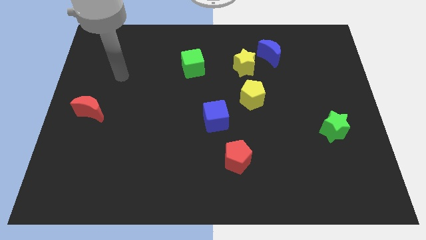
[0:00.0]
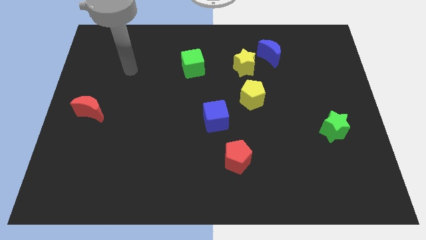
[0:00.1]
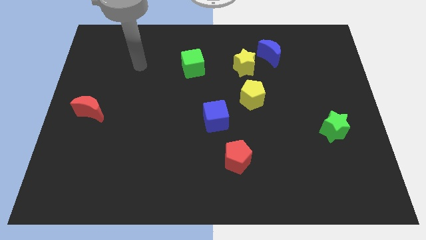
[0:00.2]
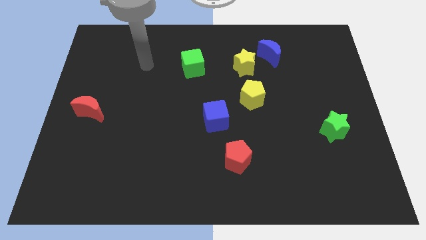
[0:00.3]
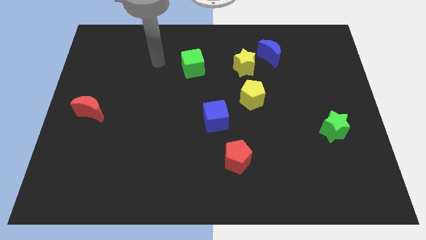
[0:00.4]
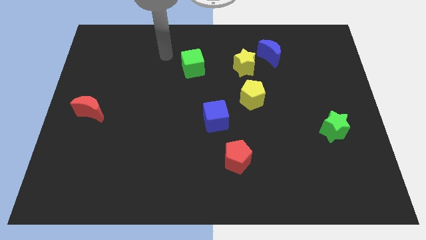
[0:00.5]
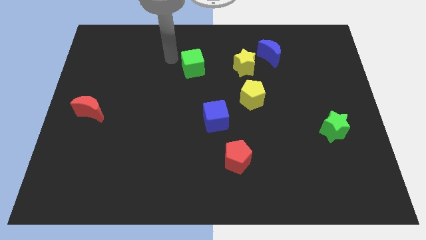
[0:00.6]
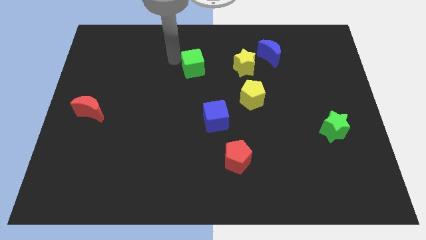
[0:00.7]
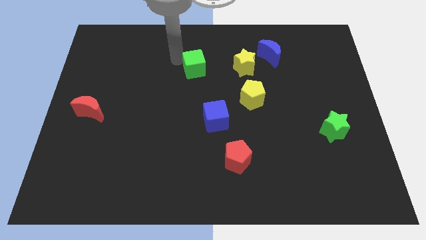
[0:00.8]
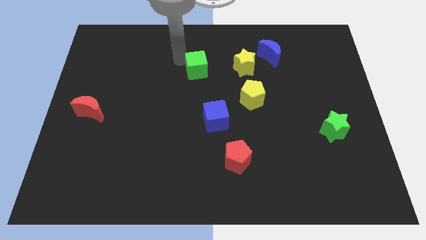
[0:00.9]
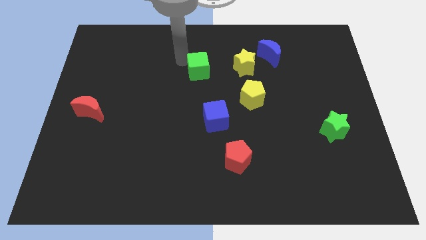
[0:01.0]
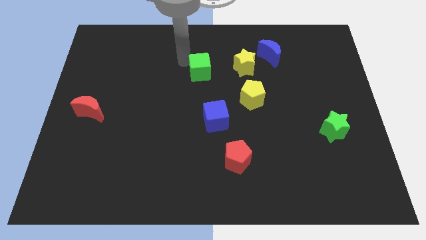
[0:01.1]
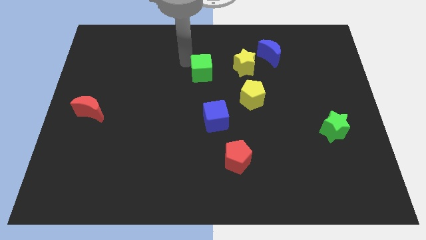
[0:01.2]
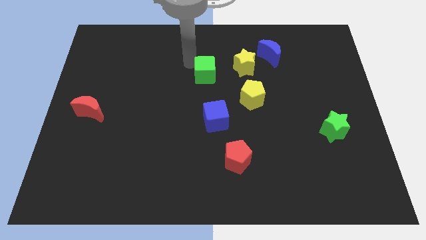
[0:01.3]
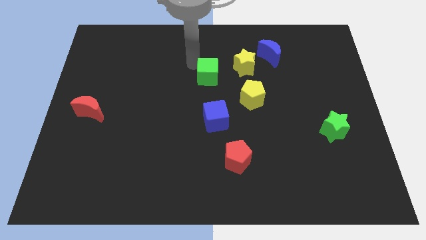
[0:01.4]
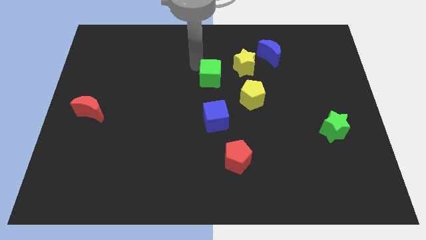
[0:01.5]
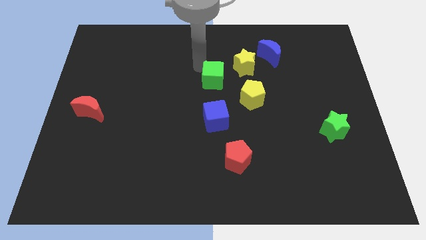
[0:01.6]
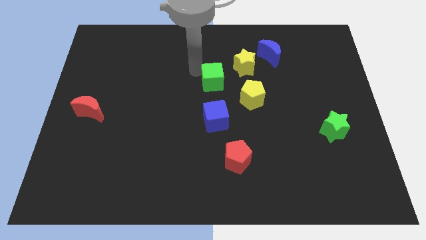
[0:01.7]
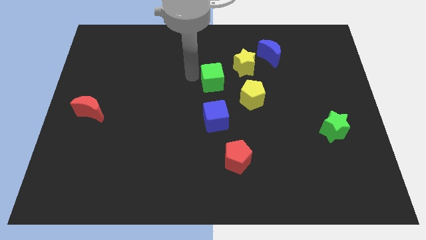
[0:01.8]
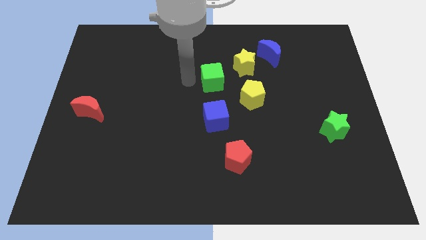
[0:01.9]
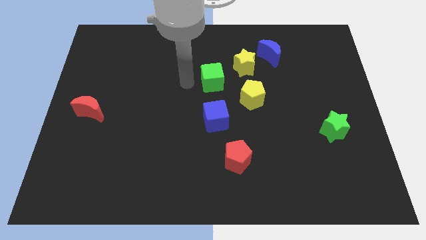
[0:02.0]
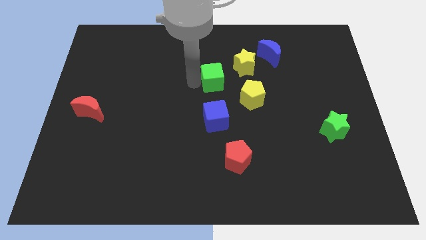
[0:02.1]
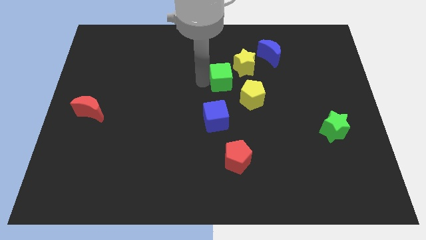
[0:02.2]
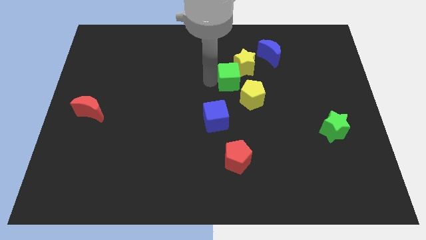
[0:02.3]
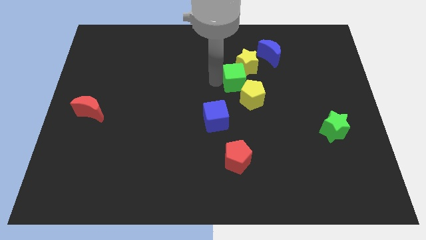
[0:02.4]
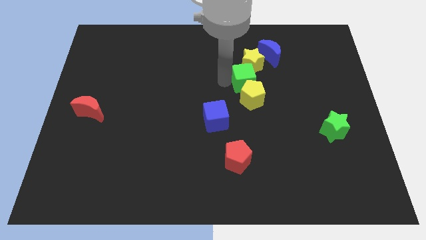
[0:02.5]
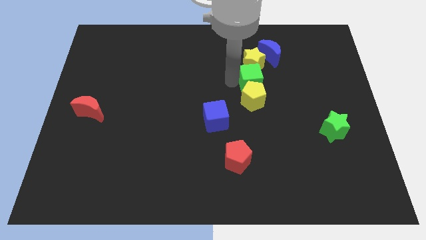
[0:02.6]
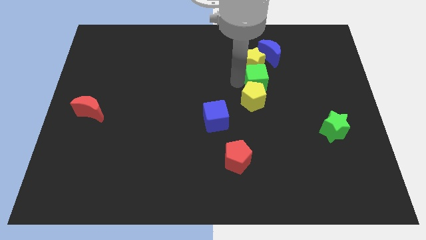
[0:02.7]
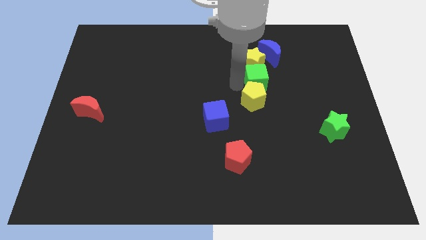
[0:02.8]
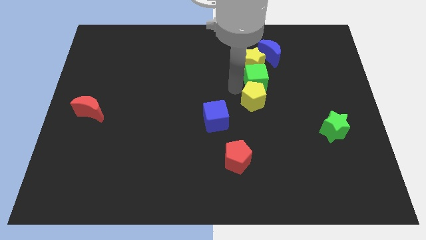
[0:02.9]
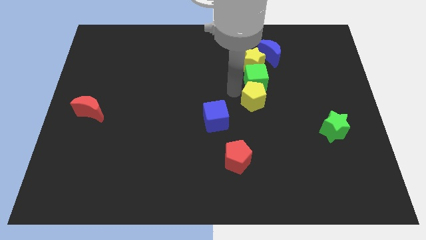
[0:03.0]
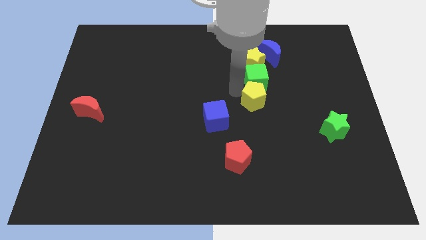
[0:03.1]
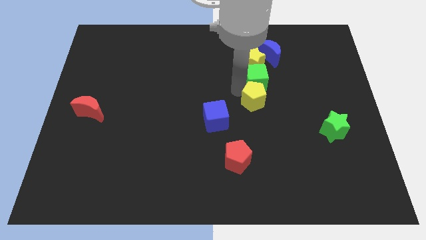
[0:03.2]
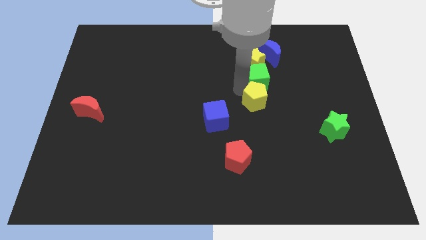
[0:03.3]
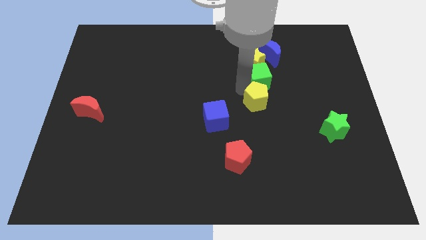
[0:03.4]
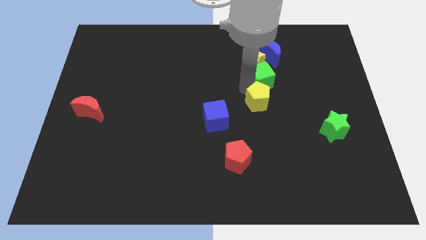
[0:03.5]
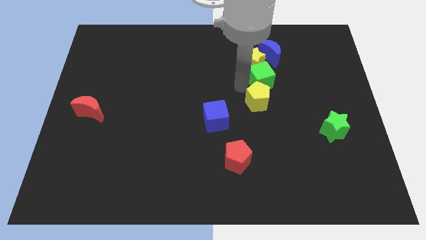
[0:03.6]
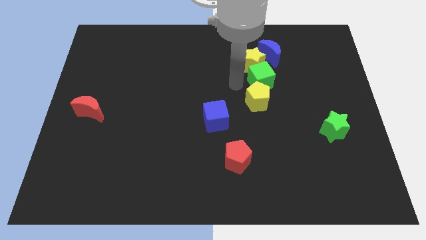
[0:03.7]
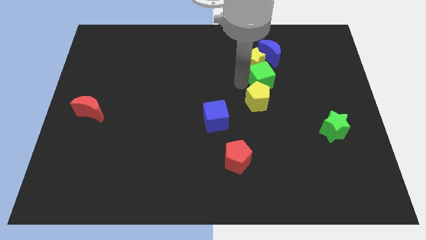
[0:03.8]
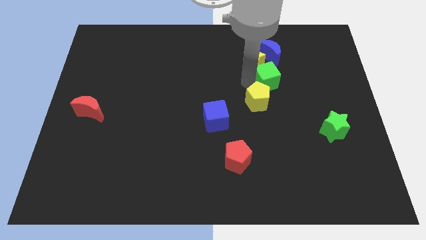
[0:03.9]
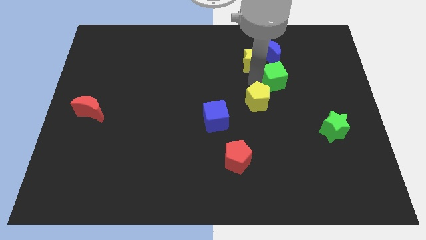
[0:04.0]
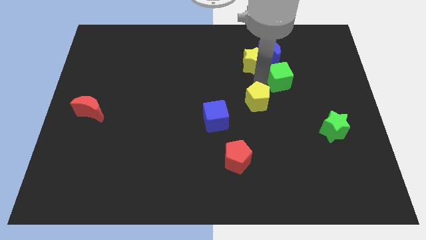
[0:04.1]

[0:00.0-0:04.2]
slide the green cube to the right

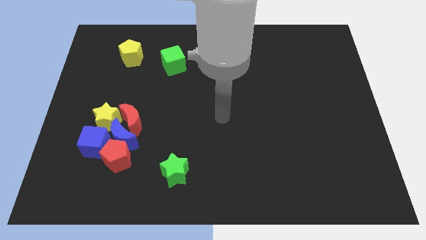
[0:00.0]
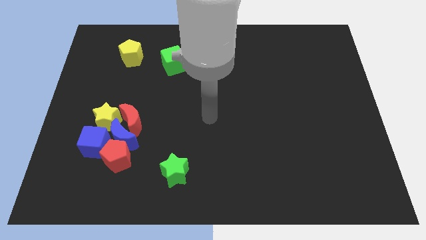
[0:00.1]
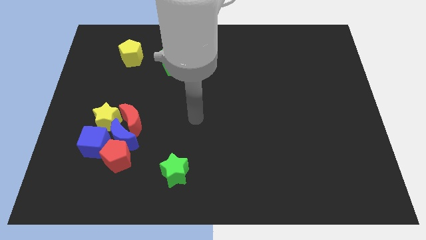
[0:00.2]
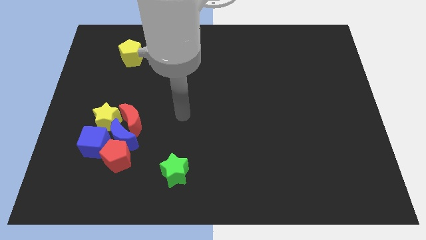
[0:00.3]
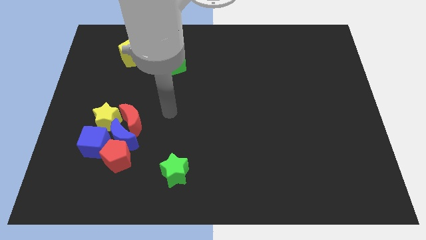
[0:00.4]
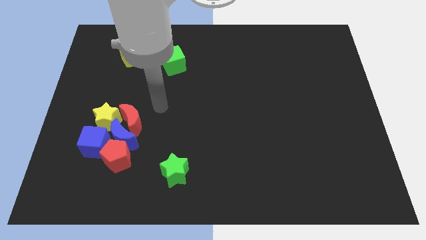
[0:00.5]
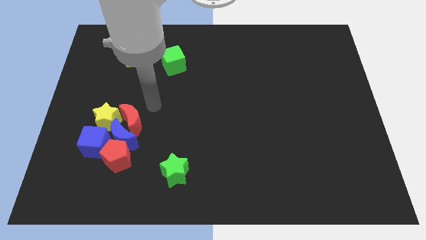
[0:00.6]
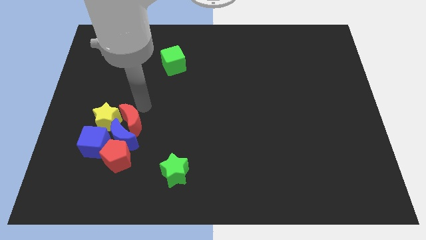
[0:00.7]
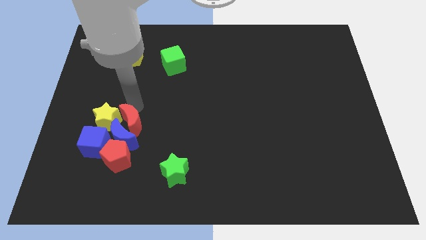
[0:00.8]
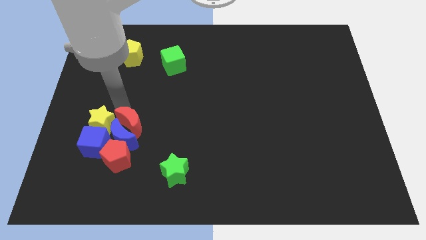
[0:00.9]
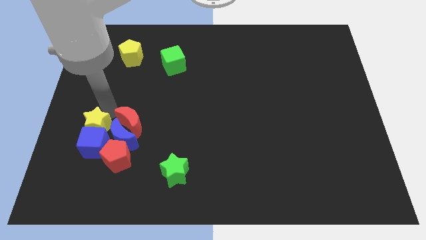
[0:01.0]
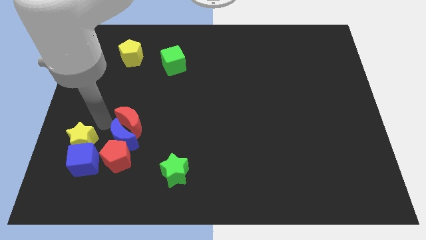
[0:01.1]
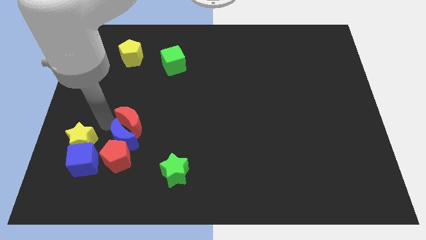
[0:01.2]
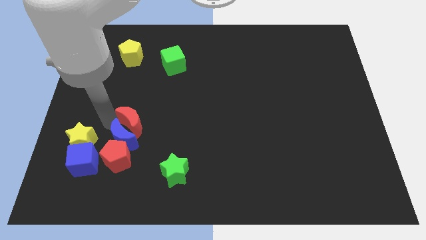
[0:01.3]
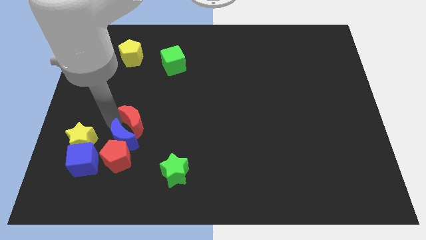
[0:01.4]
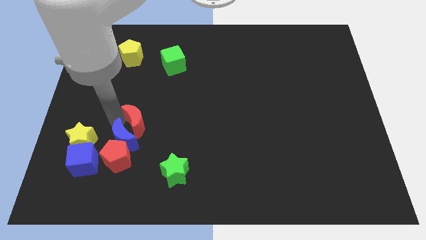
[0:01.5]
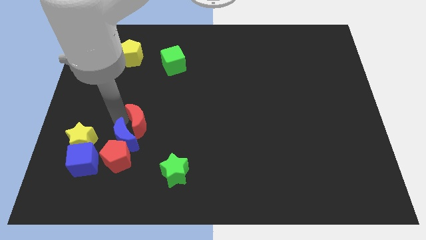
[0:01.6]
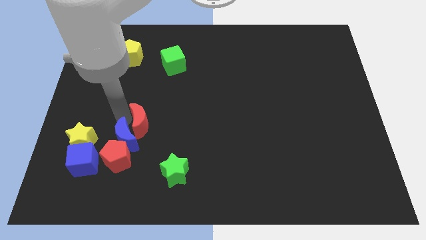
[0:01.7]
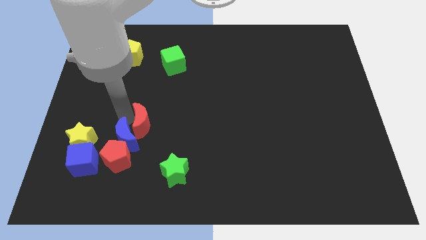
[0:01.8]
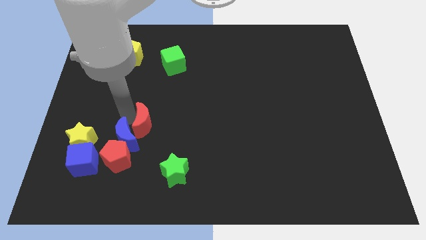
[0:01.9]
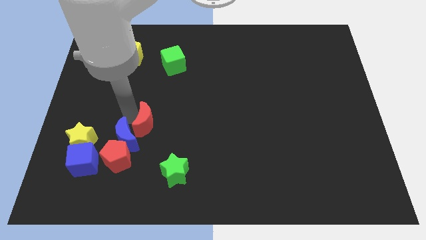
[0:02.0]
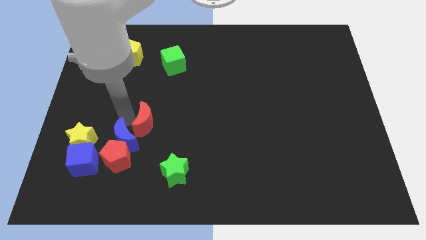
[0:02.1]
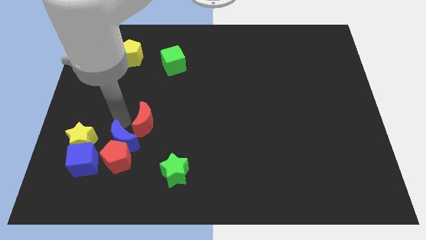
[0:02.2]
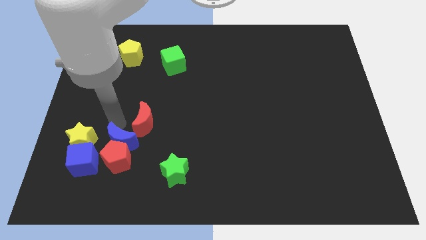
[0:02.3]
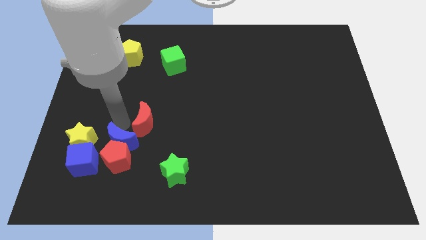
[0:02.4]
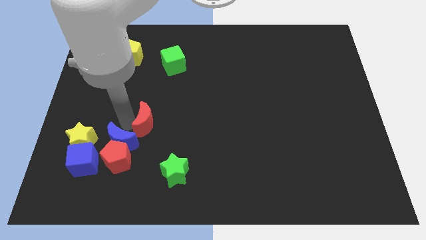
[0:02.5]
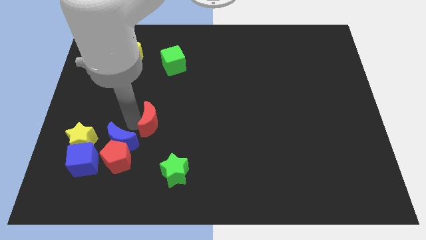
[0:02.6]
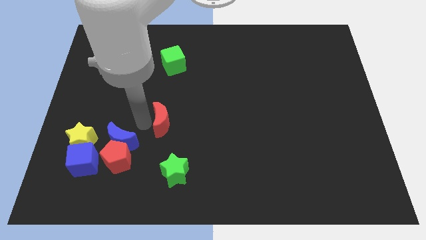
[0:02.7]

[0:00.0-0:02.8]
slightly move the red moon to the right

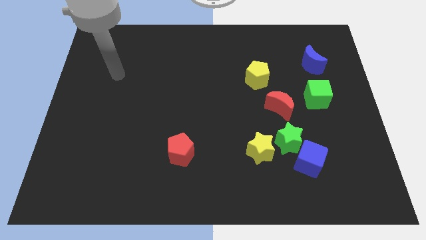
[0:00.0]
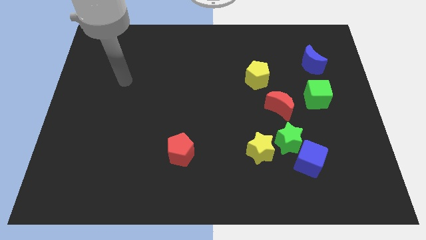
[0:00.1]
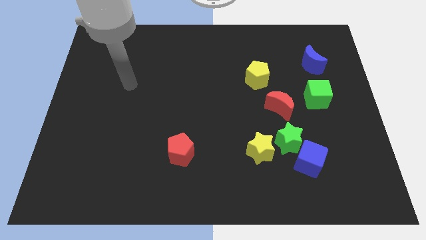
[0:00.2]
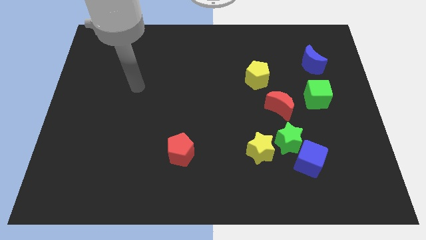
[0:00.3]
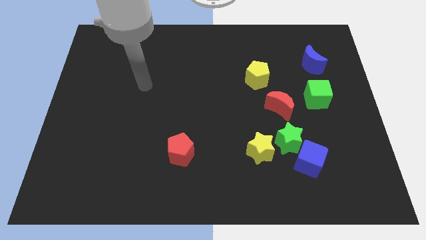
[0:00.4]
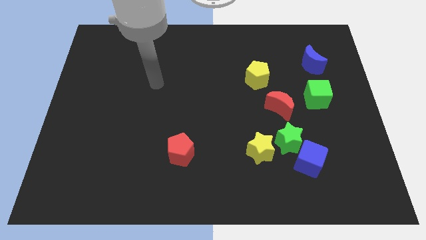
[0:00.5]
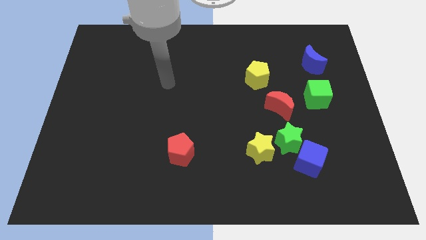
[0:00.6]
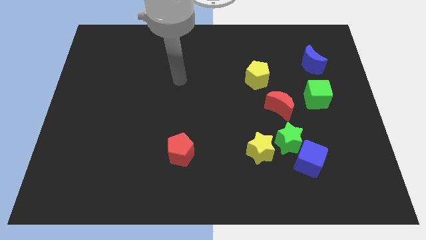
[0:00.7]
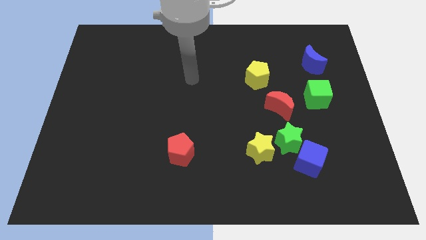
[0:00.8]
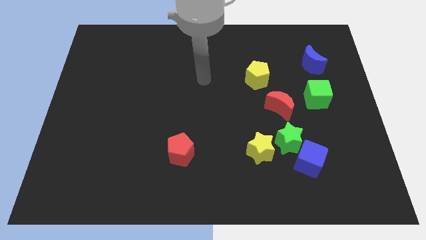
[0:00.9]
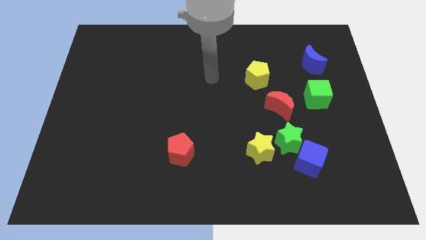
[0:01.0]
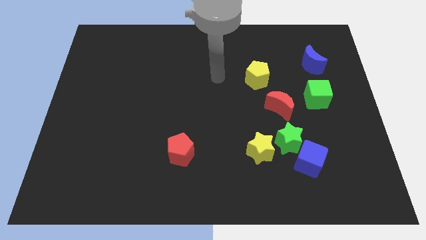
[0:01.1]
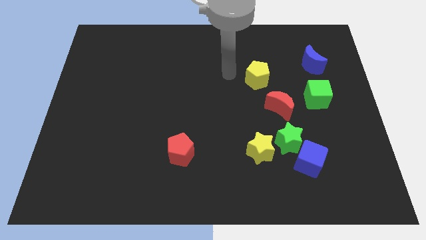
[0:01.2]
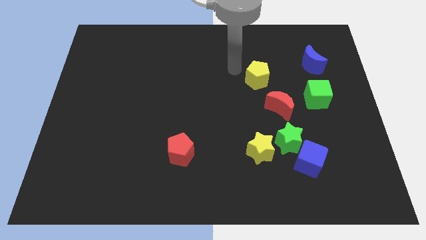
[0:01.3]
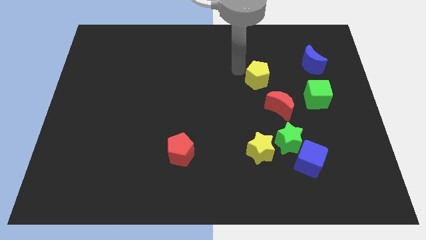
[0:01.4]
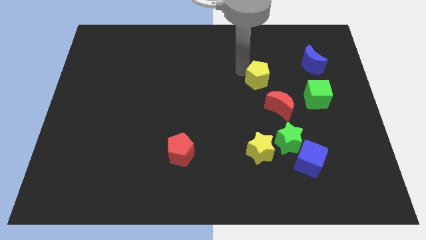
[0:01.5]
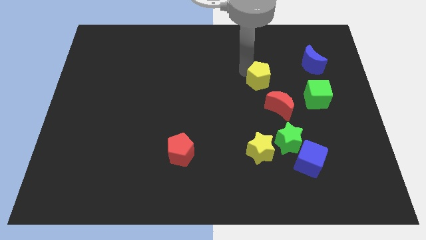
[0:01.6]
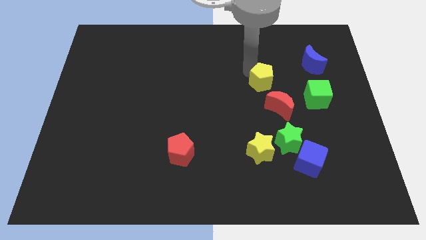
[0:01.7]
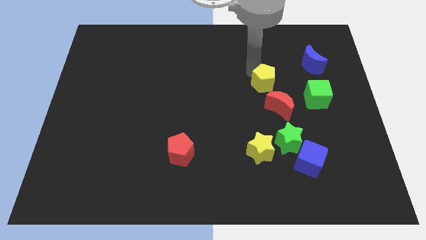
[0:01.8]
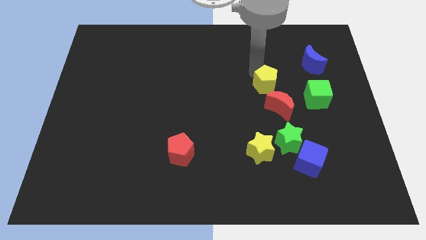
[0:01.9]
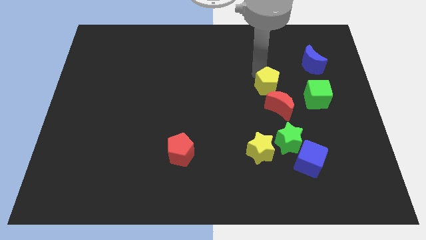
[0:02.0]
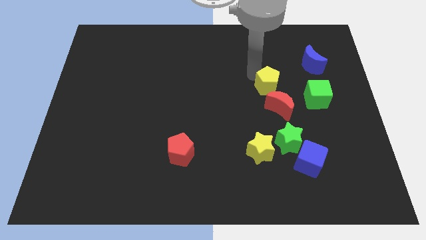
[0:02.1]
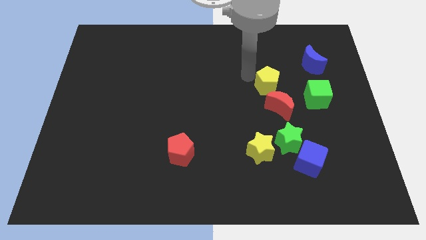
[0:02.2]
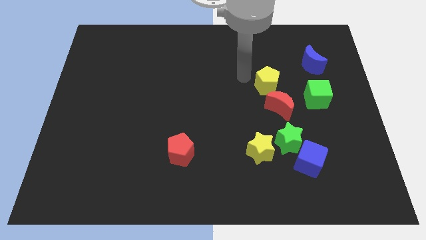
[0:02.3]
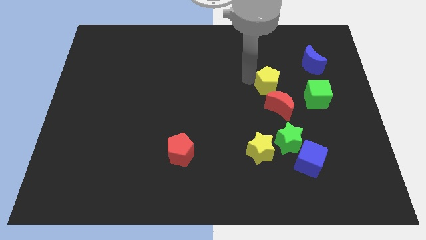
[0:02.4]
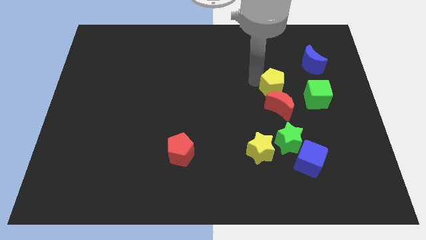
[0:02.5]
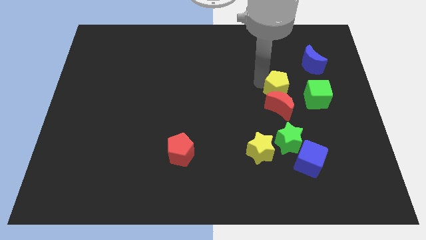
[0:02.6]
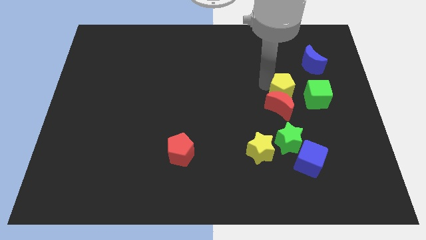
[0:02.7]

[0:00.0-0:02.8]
slightly slide the yellow pentagon down and to the right diagonally
